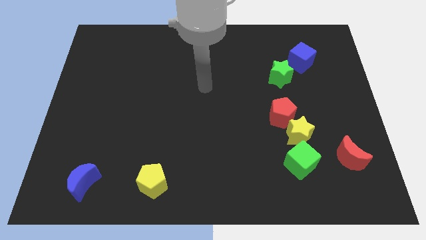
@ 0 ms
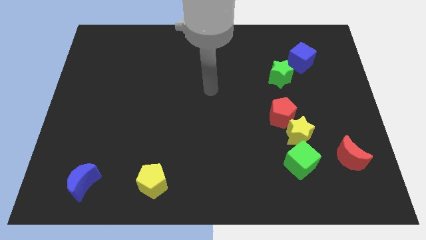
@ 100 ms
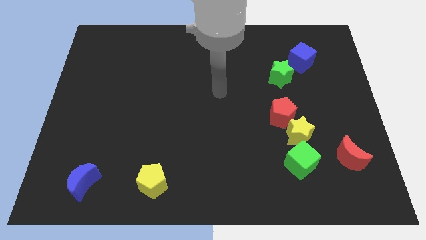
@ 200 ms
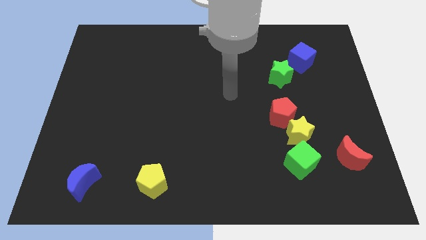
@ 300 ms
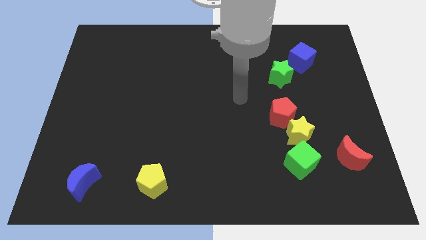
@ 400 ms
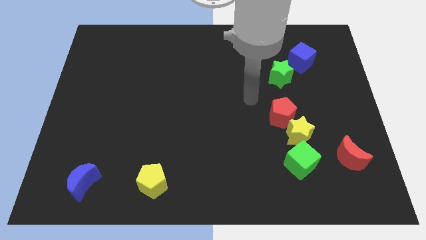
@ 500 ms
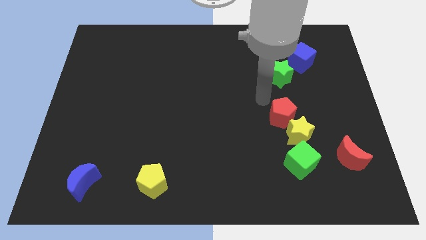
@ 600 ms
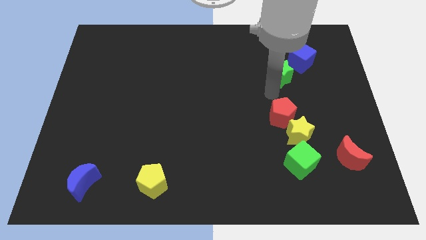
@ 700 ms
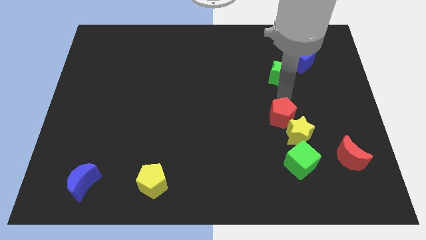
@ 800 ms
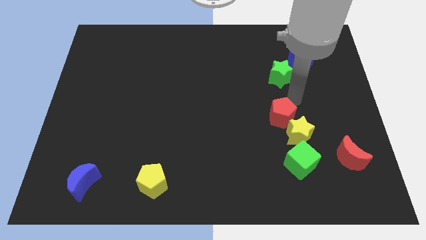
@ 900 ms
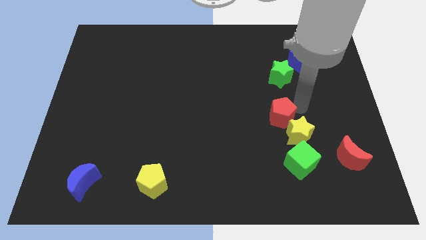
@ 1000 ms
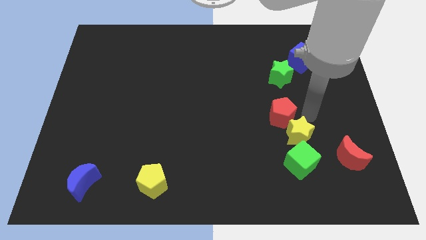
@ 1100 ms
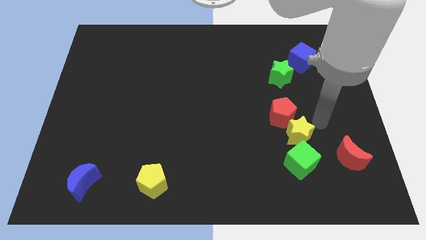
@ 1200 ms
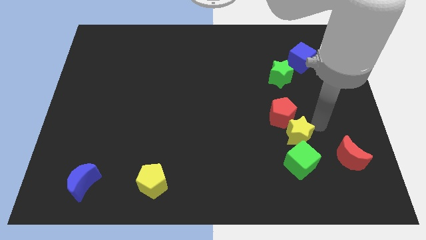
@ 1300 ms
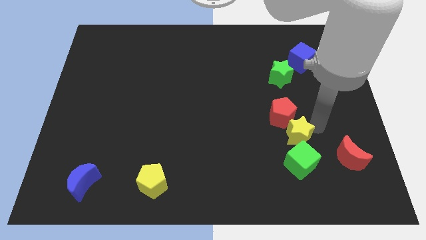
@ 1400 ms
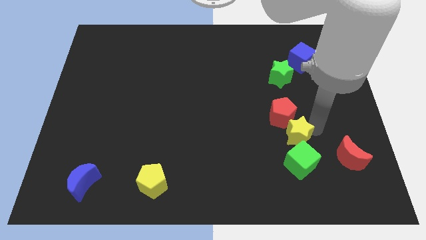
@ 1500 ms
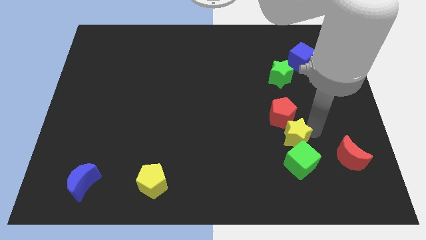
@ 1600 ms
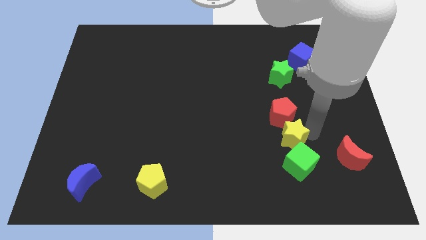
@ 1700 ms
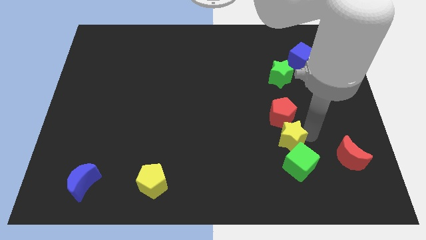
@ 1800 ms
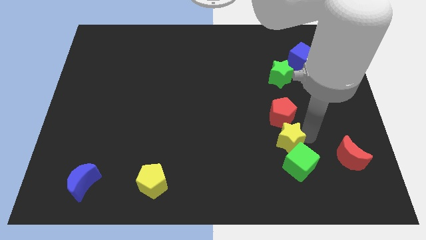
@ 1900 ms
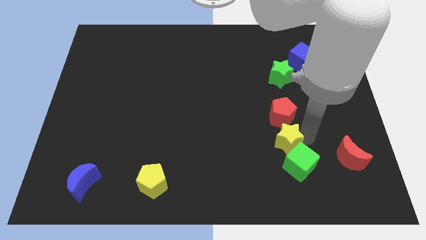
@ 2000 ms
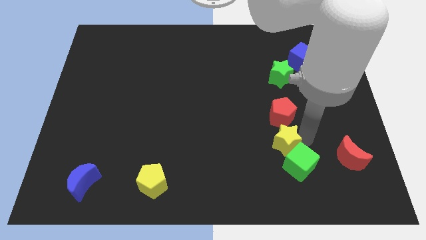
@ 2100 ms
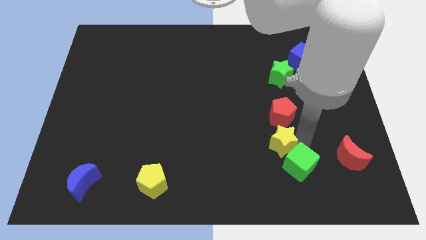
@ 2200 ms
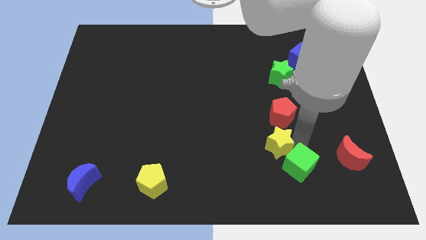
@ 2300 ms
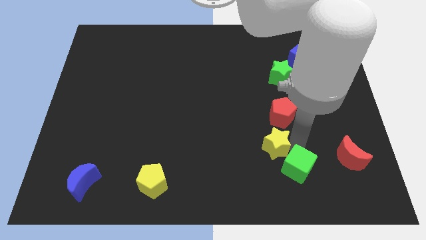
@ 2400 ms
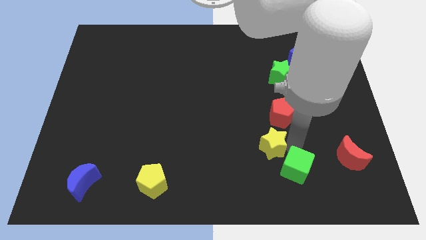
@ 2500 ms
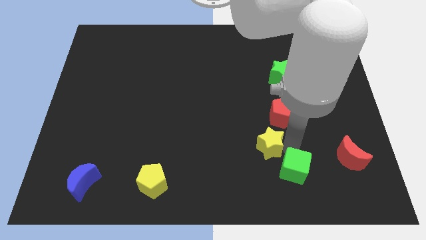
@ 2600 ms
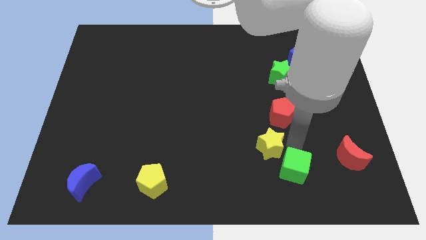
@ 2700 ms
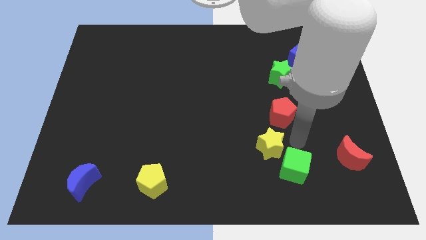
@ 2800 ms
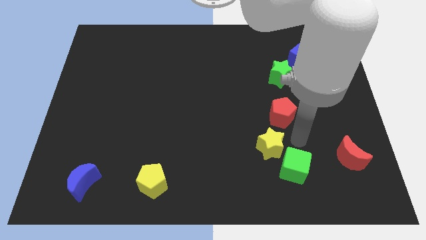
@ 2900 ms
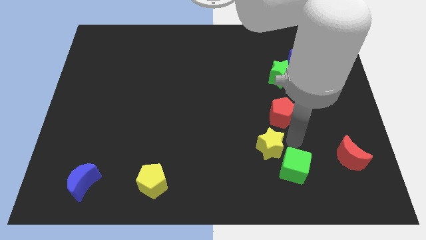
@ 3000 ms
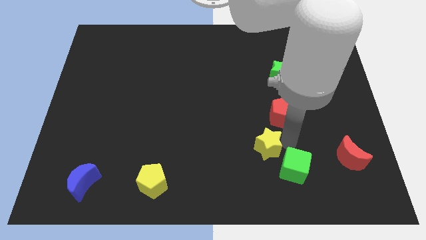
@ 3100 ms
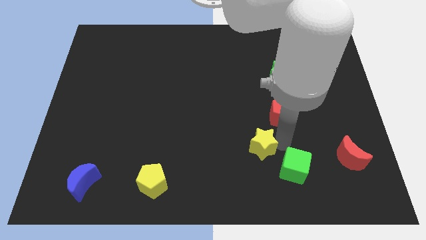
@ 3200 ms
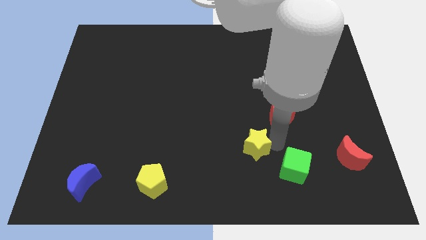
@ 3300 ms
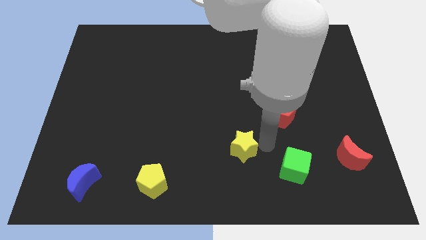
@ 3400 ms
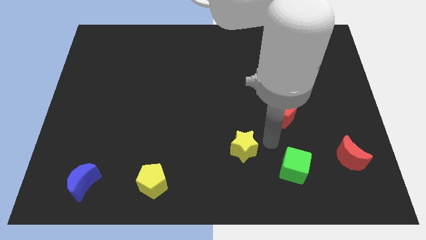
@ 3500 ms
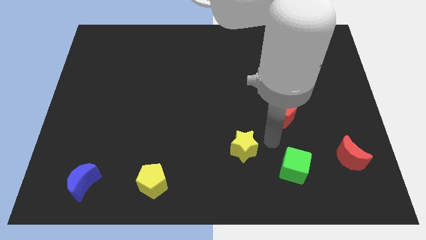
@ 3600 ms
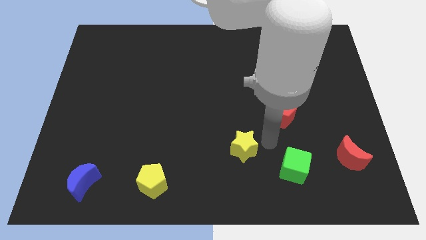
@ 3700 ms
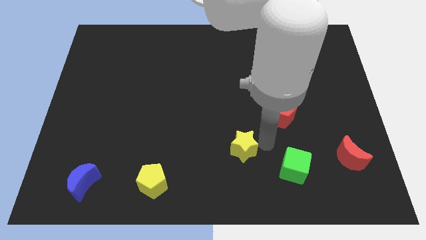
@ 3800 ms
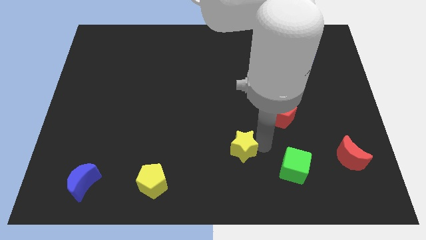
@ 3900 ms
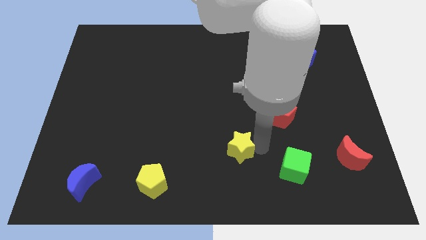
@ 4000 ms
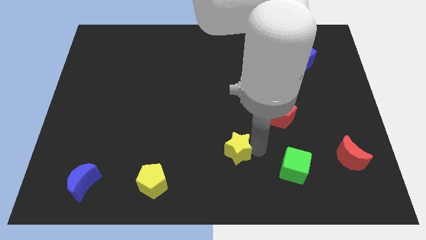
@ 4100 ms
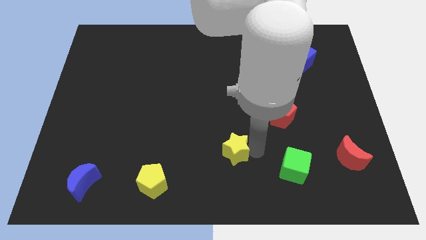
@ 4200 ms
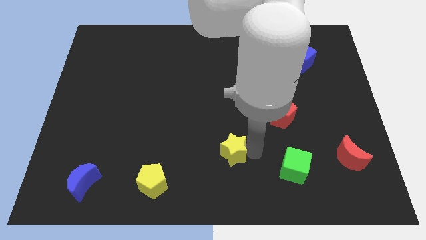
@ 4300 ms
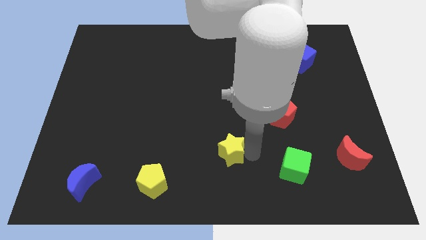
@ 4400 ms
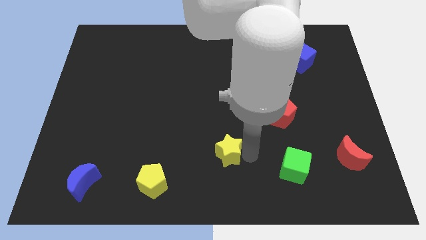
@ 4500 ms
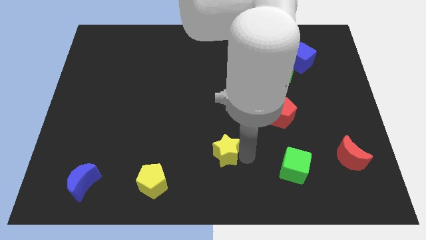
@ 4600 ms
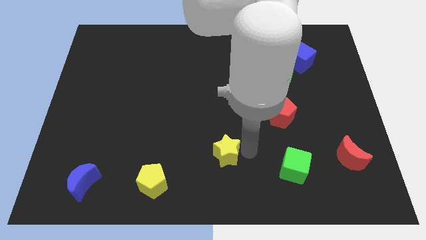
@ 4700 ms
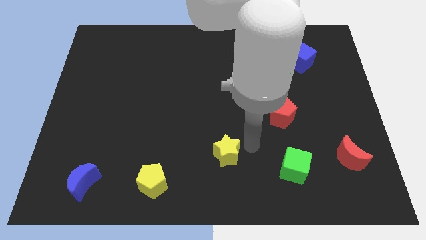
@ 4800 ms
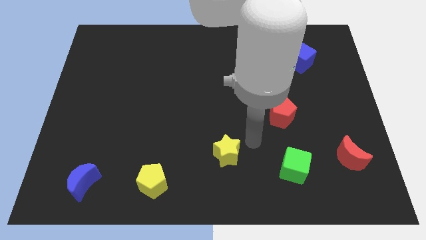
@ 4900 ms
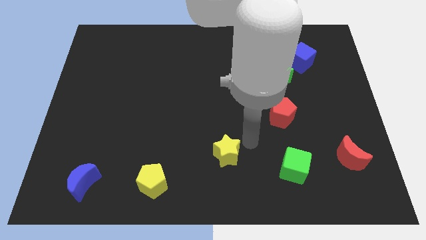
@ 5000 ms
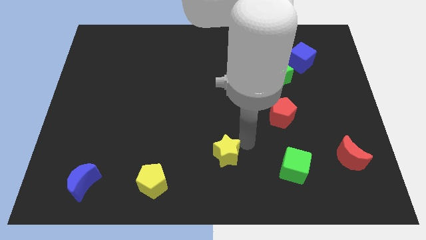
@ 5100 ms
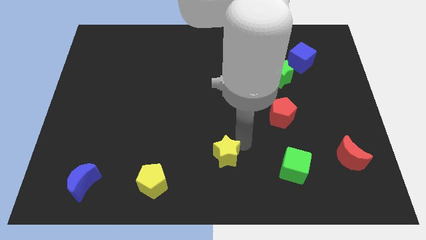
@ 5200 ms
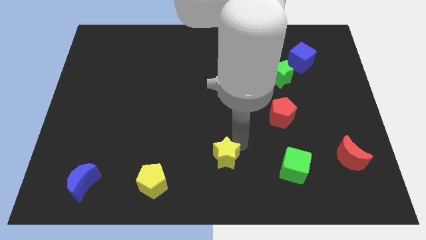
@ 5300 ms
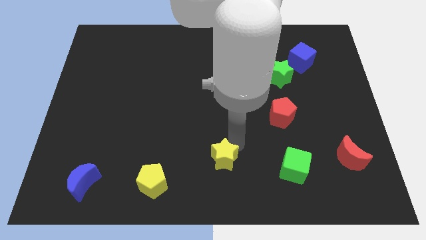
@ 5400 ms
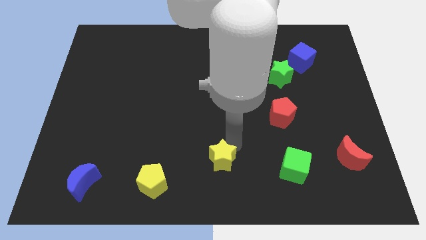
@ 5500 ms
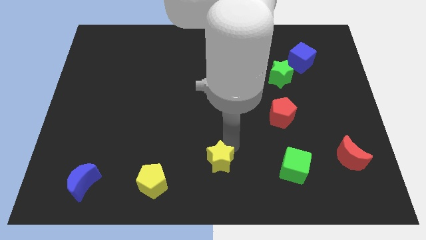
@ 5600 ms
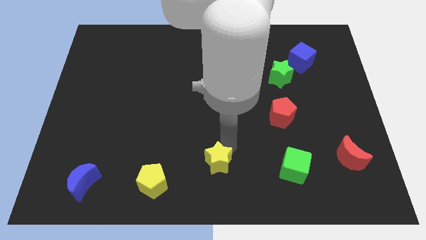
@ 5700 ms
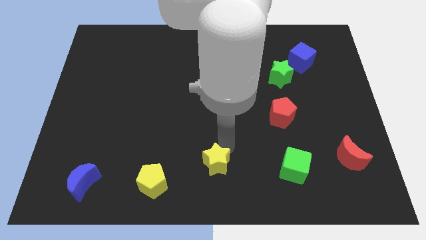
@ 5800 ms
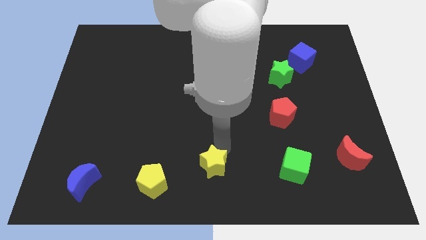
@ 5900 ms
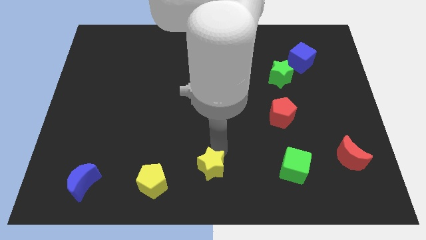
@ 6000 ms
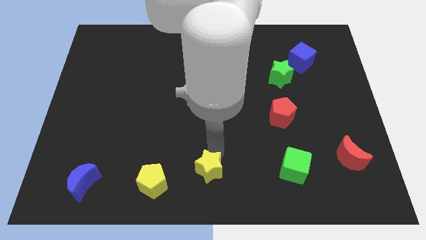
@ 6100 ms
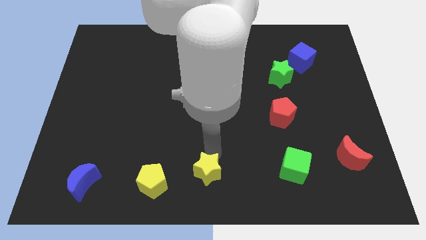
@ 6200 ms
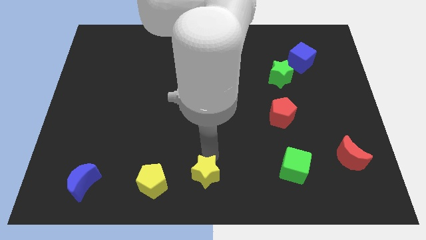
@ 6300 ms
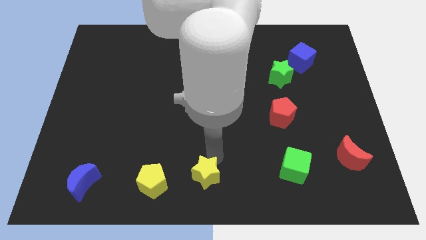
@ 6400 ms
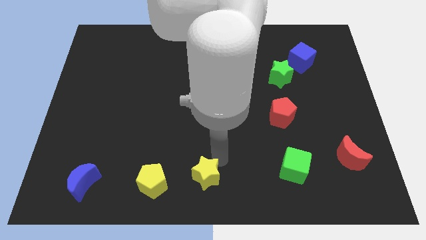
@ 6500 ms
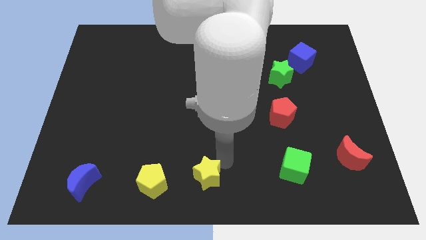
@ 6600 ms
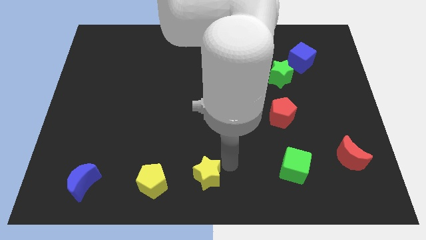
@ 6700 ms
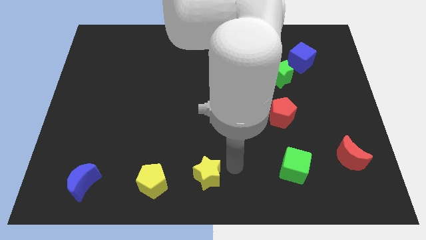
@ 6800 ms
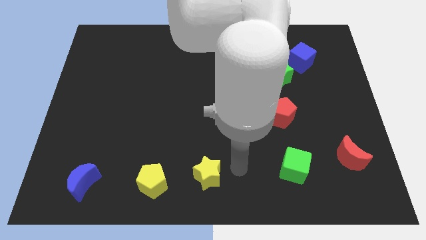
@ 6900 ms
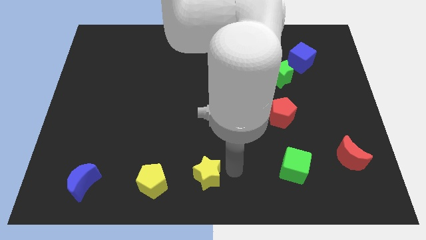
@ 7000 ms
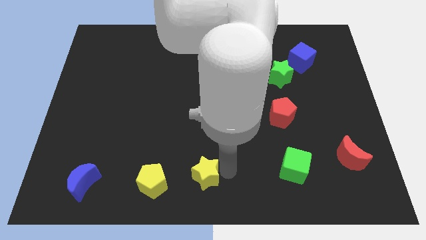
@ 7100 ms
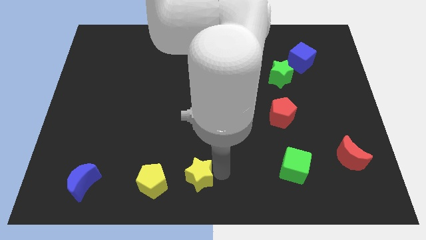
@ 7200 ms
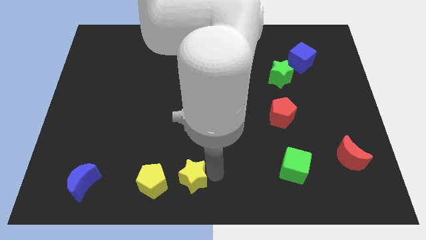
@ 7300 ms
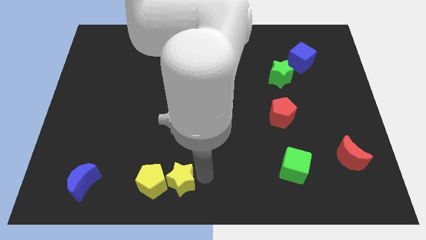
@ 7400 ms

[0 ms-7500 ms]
move the yellow star towards the yellow pentagon
